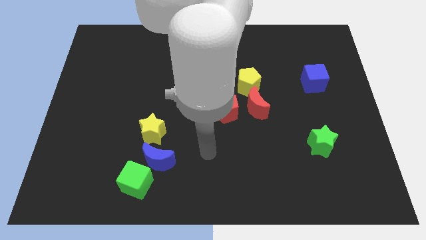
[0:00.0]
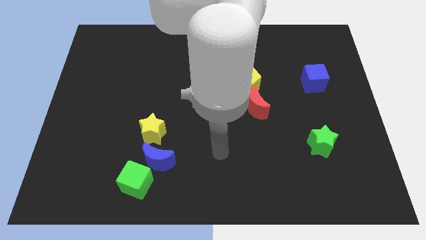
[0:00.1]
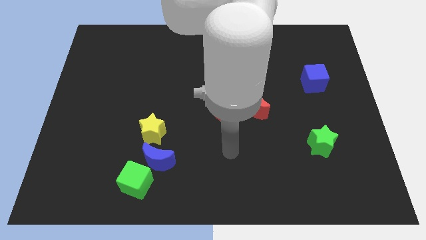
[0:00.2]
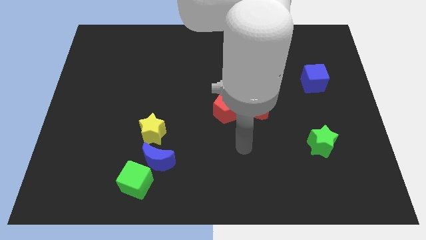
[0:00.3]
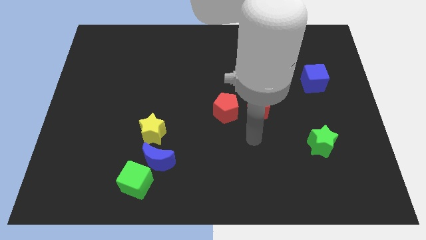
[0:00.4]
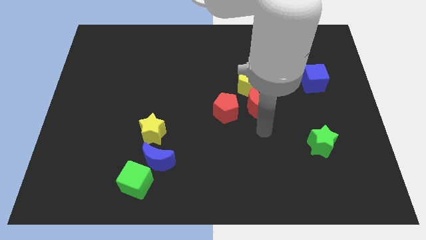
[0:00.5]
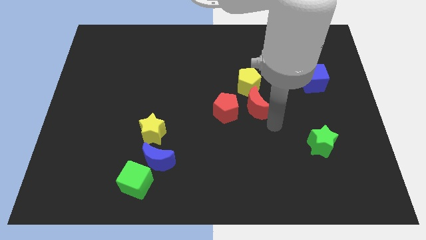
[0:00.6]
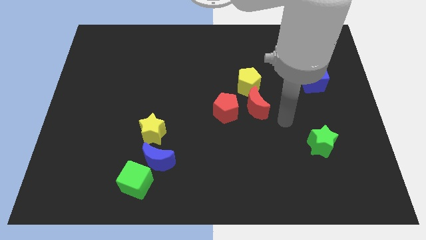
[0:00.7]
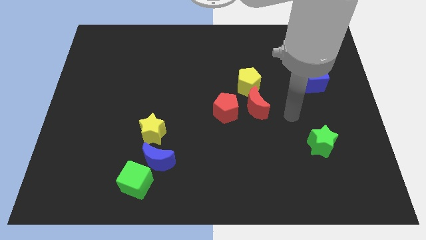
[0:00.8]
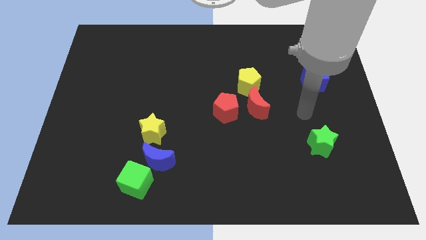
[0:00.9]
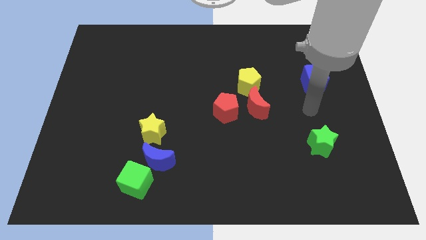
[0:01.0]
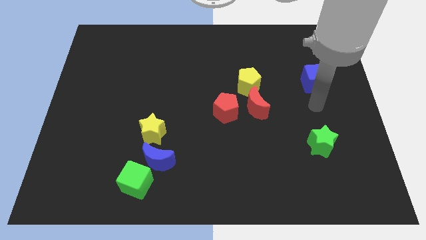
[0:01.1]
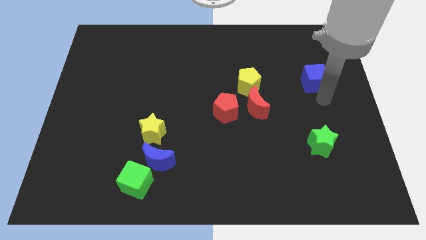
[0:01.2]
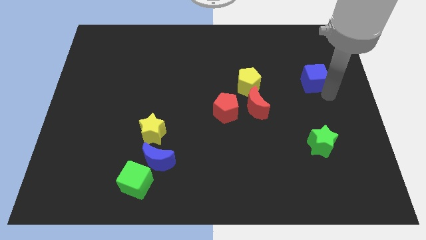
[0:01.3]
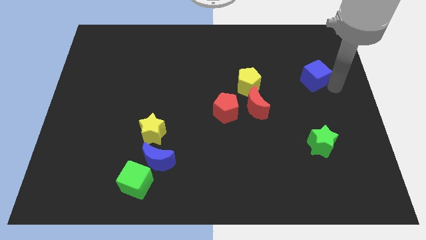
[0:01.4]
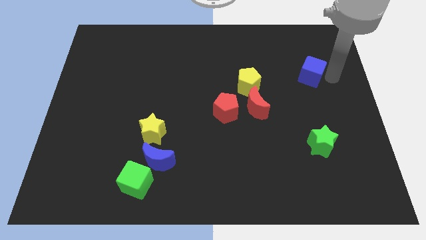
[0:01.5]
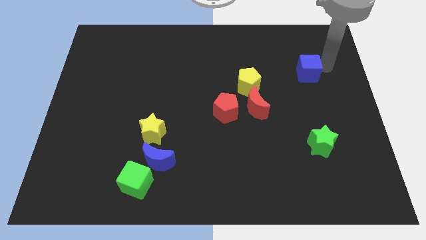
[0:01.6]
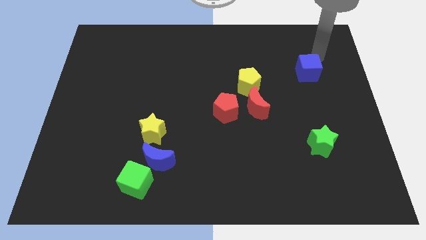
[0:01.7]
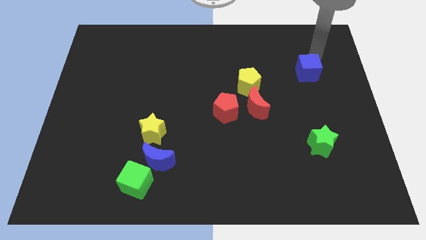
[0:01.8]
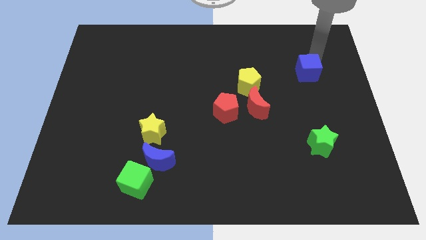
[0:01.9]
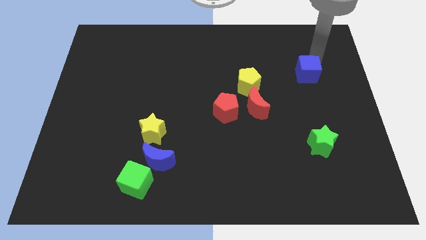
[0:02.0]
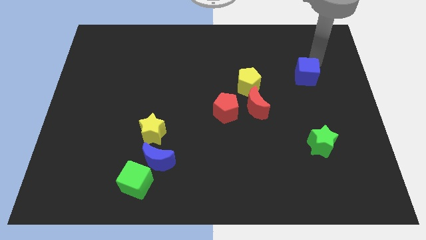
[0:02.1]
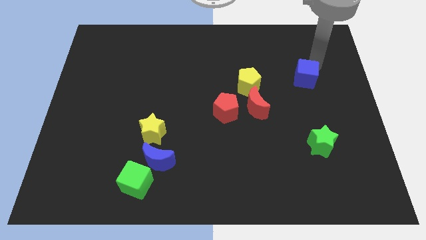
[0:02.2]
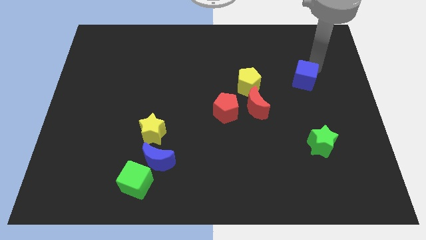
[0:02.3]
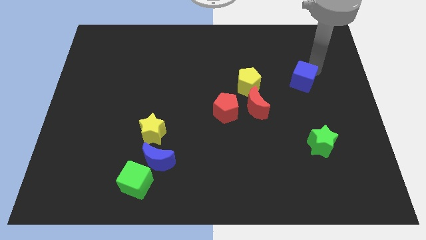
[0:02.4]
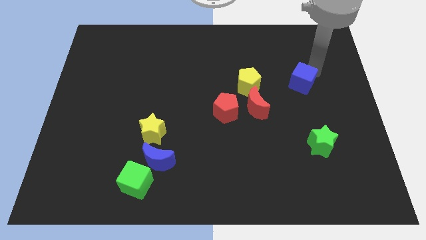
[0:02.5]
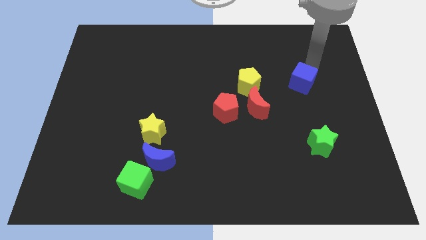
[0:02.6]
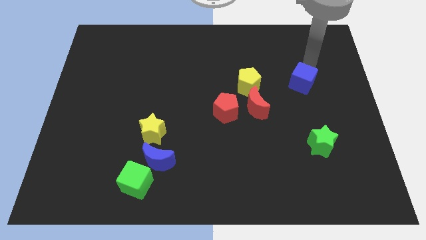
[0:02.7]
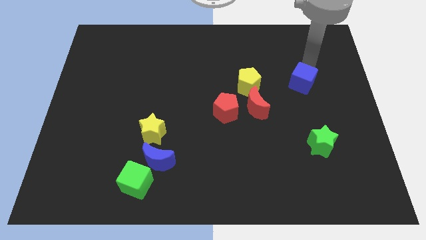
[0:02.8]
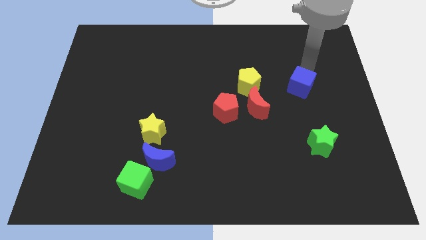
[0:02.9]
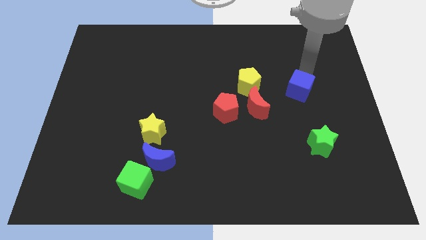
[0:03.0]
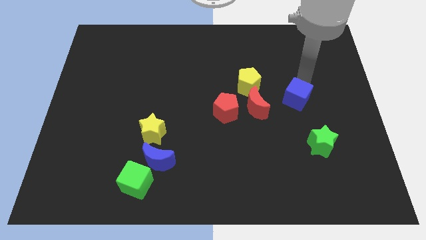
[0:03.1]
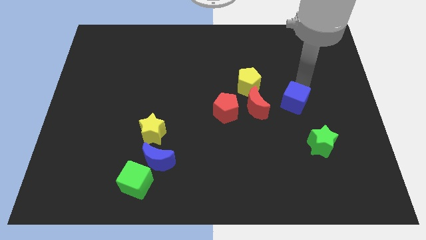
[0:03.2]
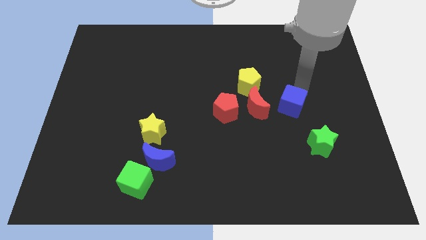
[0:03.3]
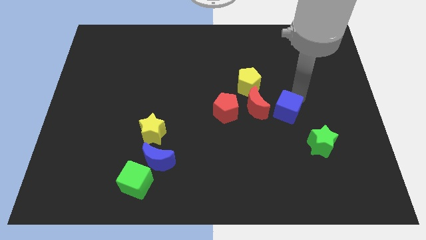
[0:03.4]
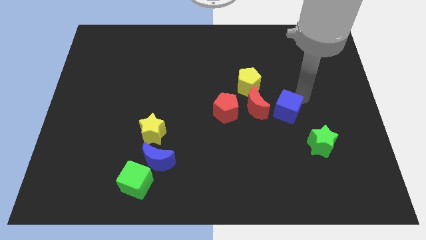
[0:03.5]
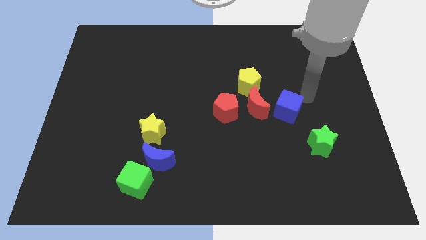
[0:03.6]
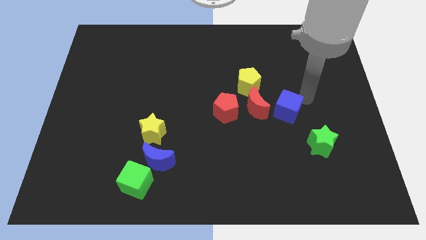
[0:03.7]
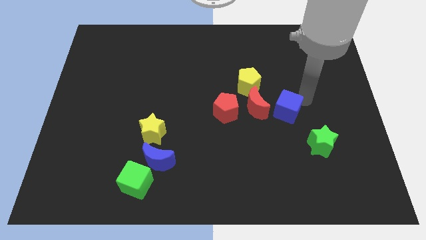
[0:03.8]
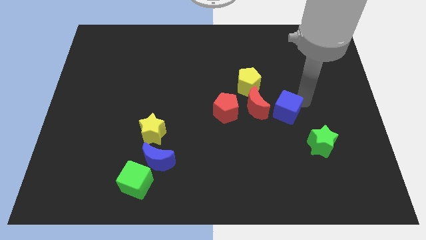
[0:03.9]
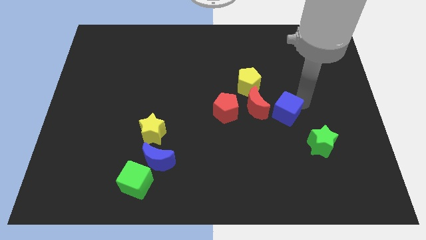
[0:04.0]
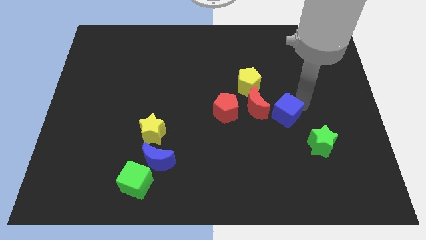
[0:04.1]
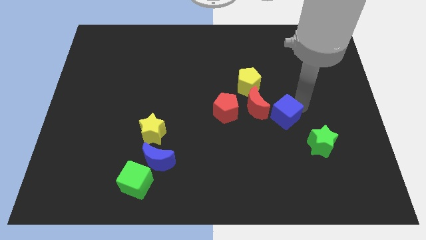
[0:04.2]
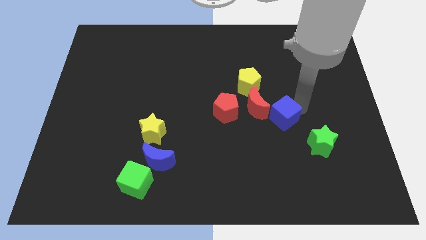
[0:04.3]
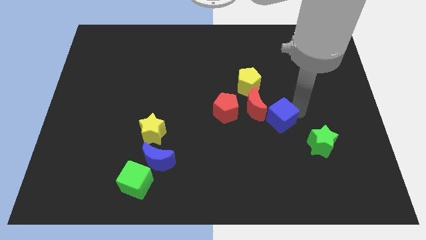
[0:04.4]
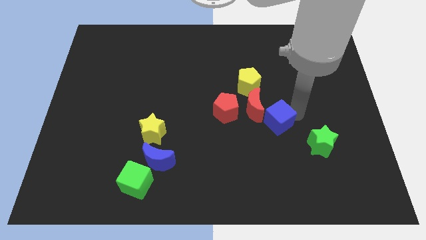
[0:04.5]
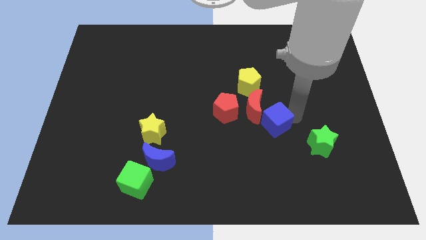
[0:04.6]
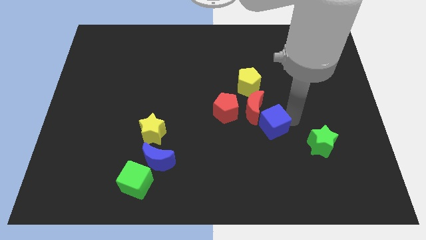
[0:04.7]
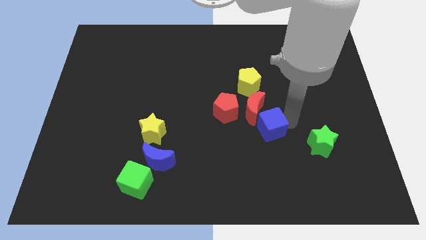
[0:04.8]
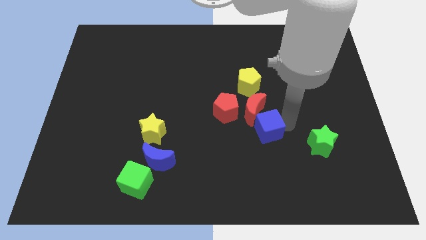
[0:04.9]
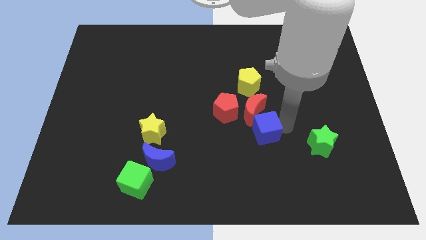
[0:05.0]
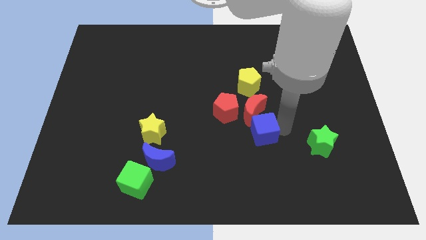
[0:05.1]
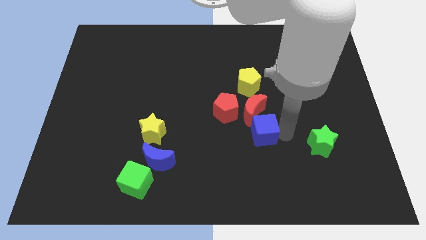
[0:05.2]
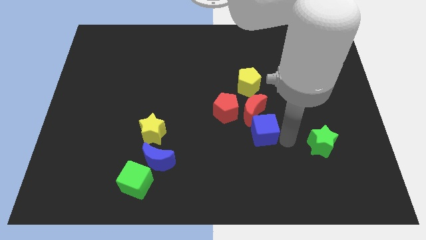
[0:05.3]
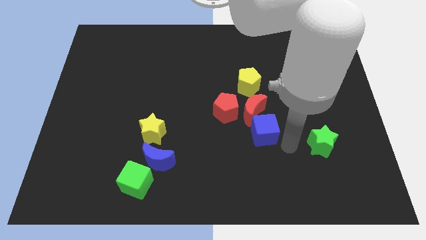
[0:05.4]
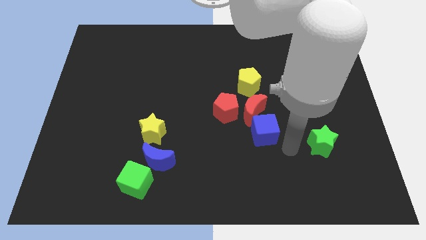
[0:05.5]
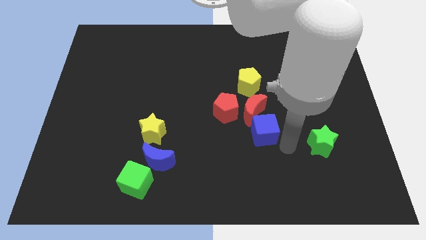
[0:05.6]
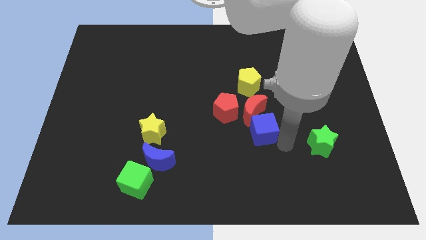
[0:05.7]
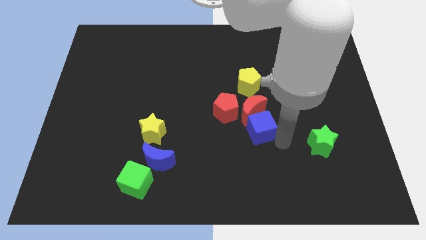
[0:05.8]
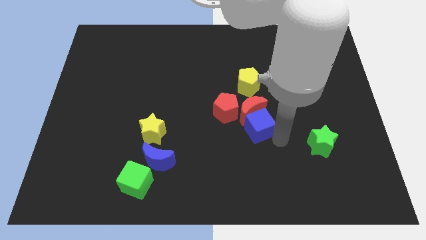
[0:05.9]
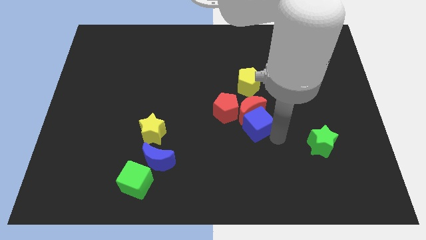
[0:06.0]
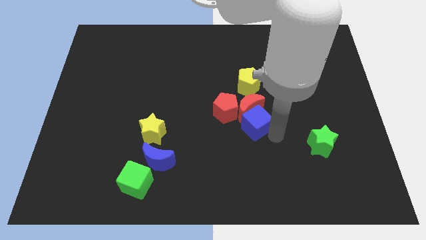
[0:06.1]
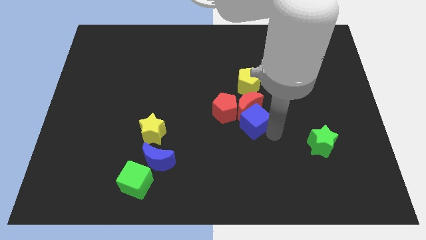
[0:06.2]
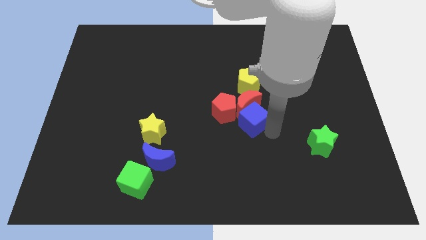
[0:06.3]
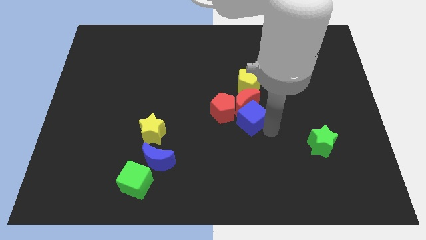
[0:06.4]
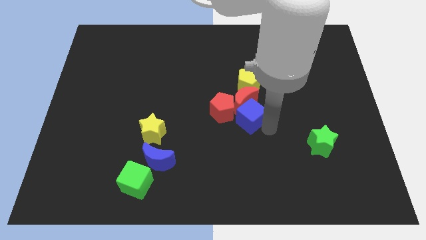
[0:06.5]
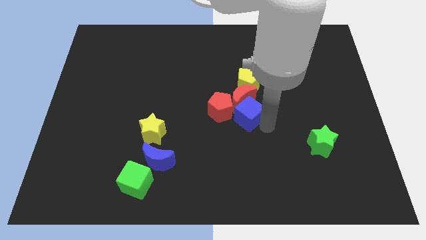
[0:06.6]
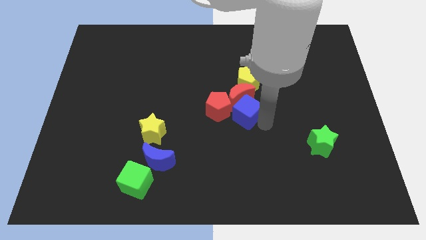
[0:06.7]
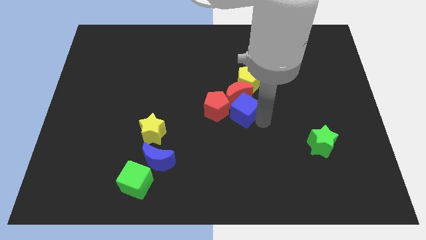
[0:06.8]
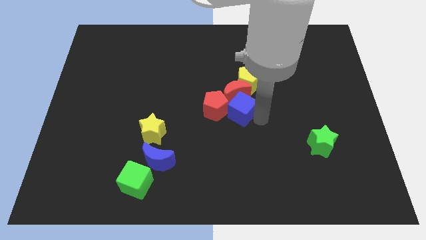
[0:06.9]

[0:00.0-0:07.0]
move the blue cube close to the red pentagon

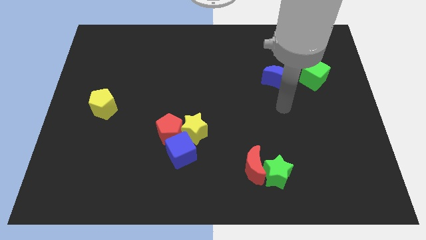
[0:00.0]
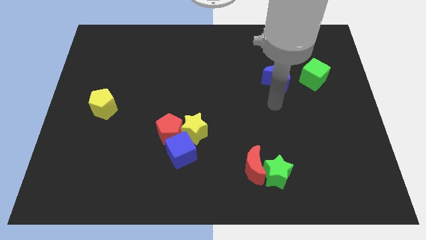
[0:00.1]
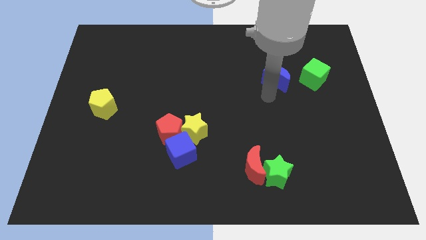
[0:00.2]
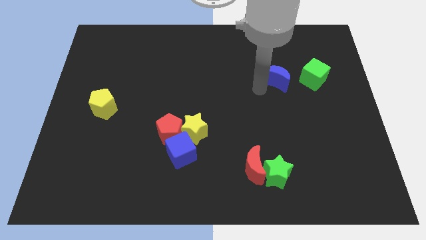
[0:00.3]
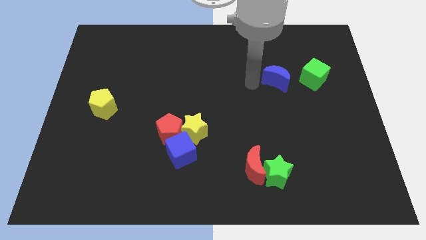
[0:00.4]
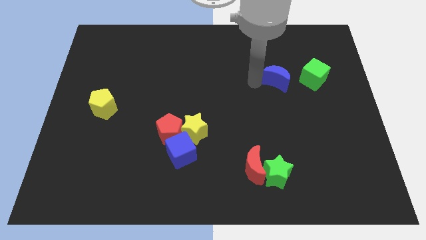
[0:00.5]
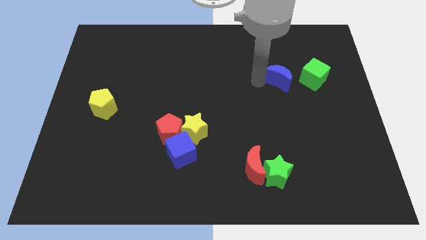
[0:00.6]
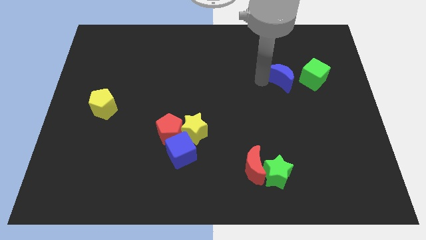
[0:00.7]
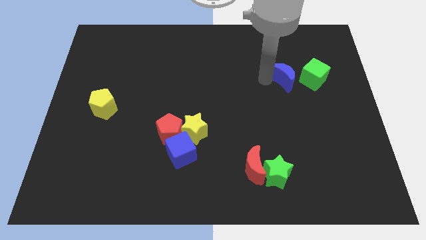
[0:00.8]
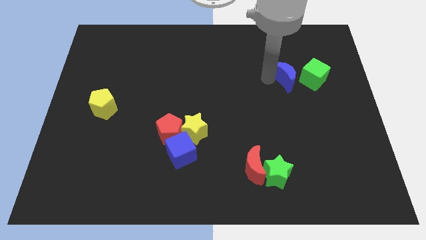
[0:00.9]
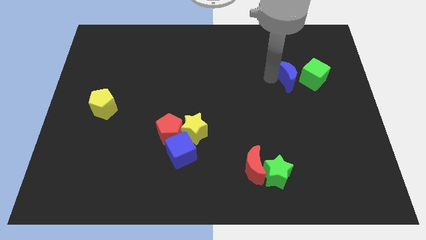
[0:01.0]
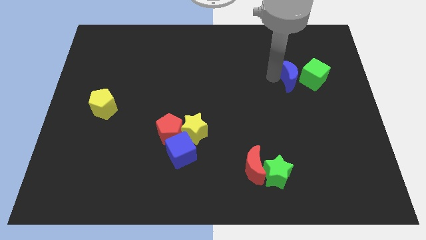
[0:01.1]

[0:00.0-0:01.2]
slide the blue moon close to the green cube
